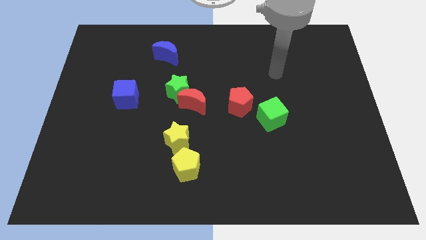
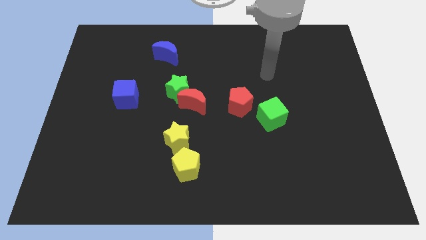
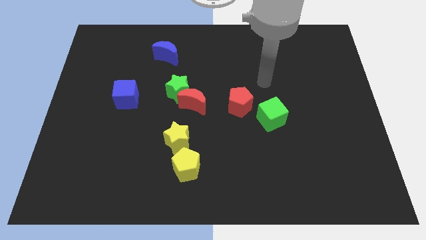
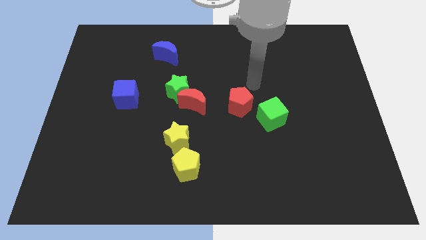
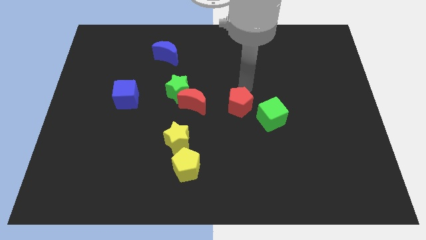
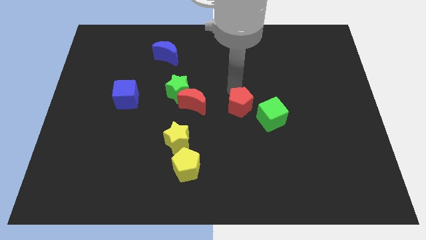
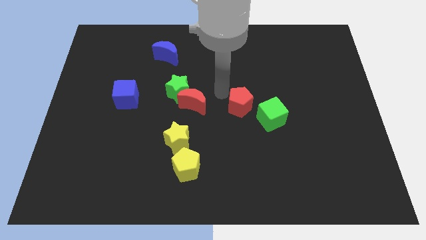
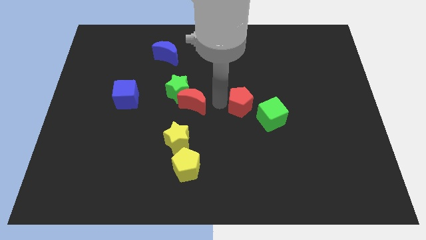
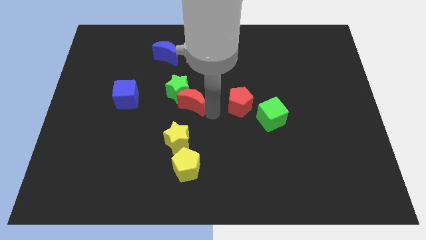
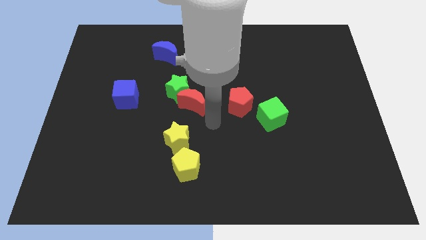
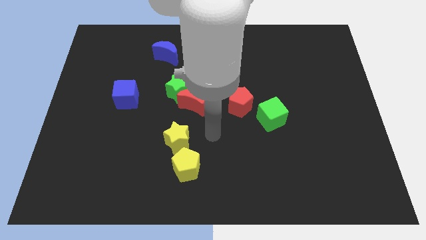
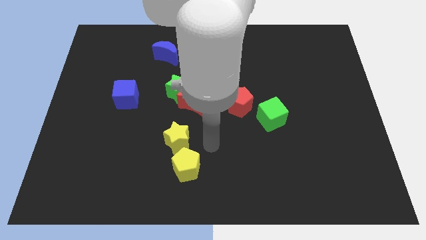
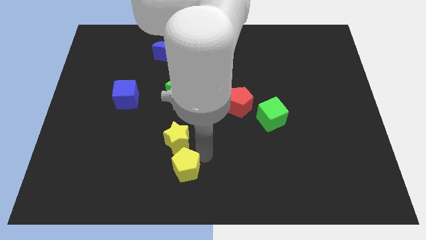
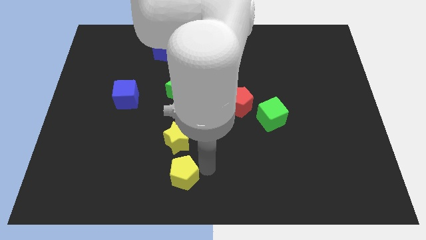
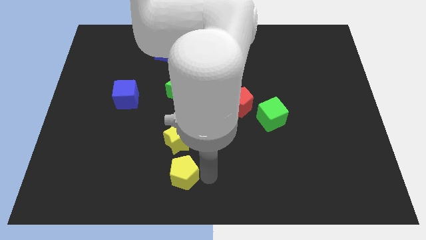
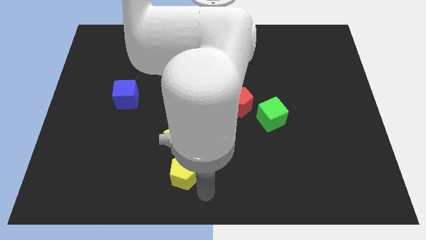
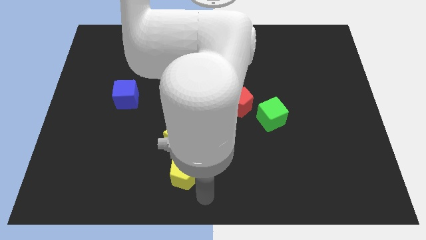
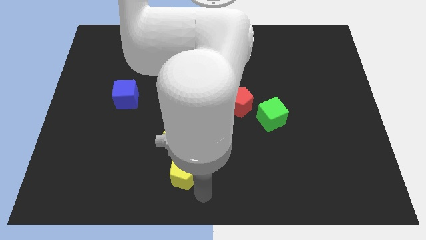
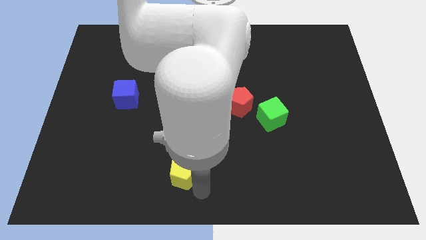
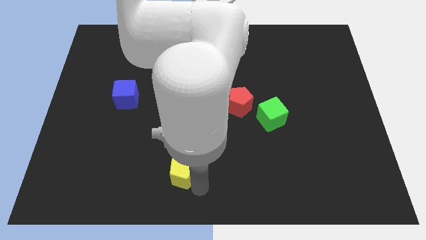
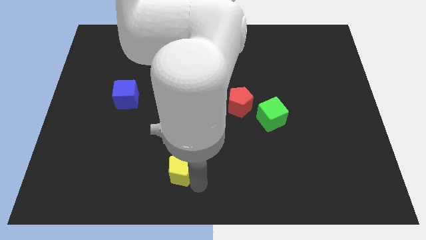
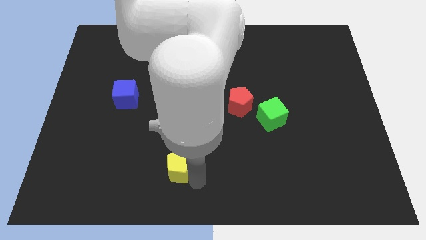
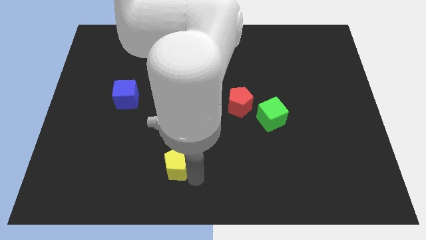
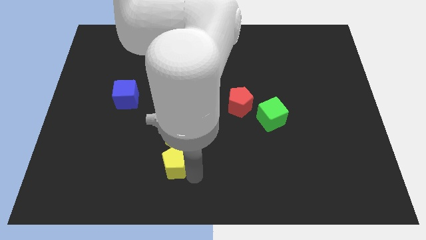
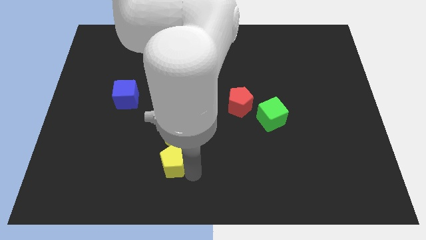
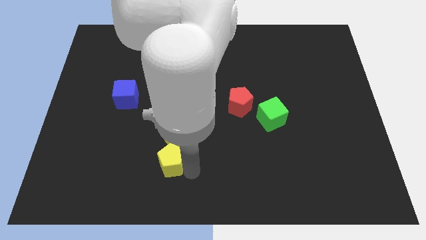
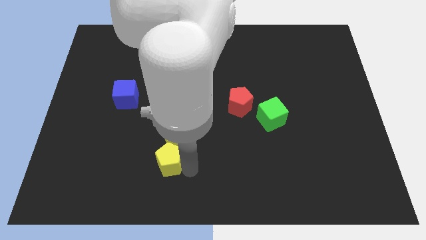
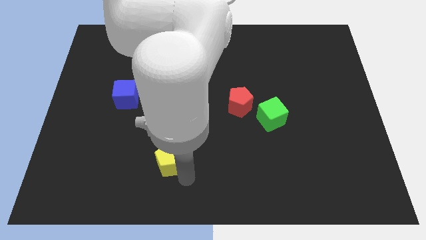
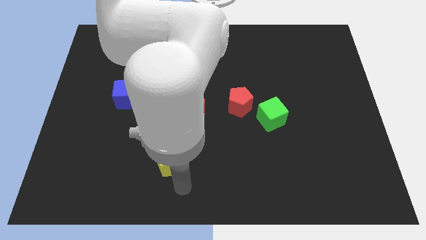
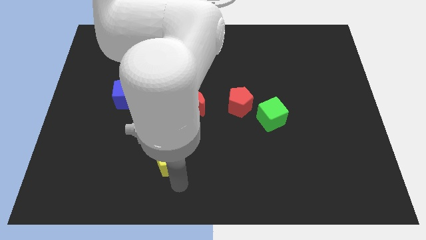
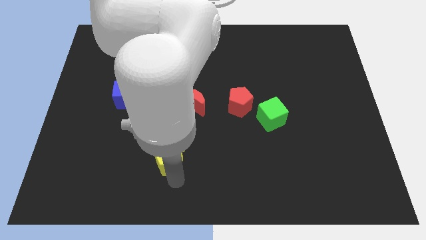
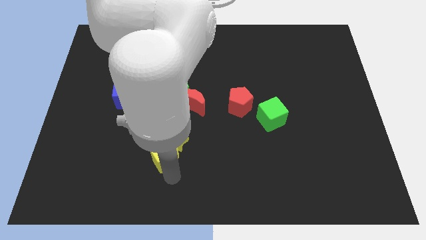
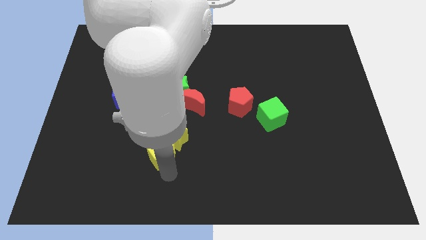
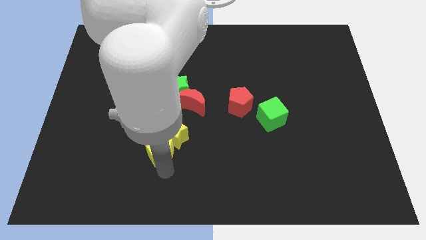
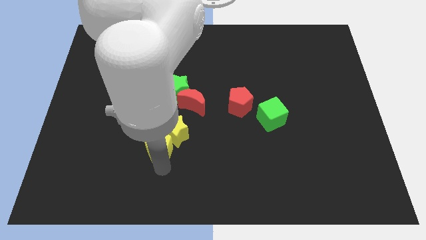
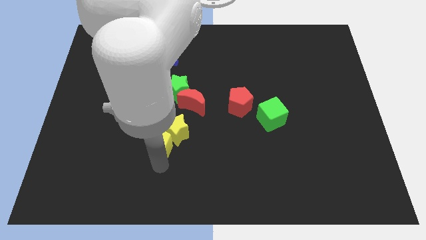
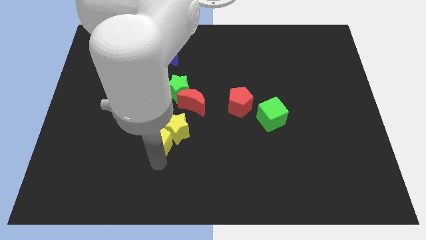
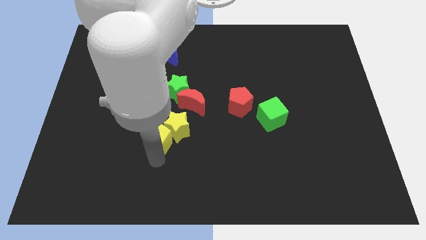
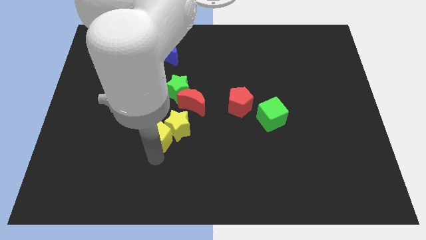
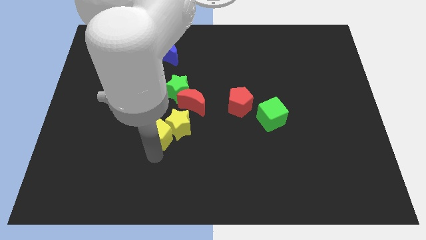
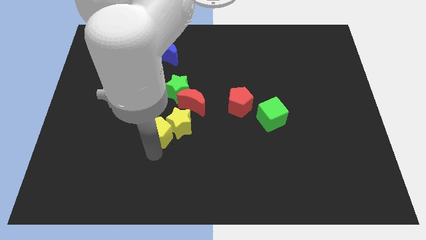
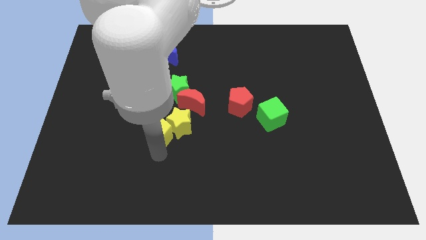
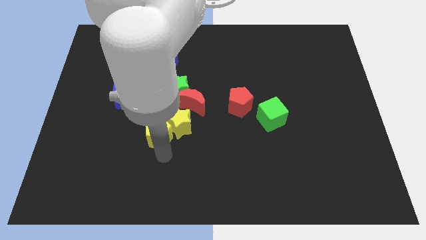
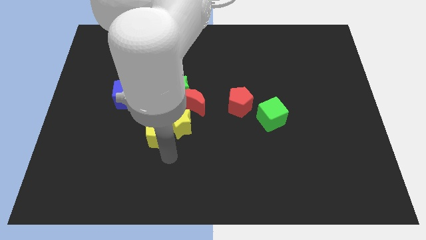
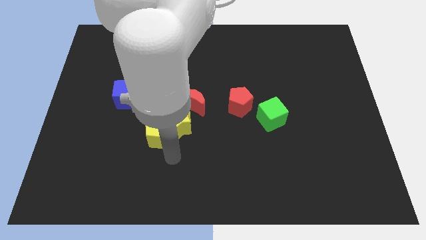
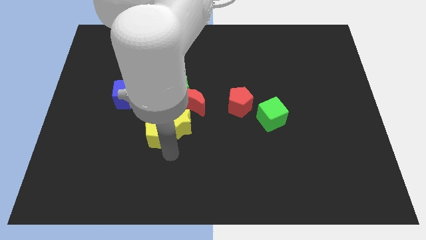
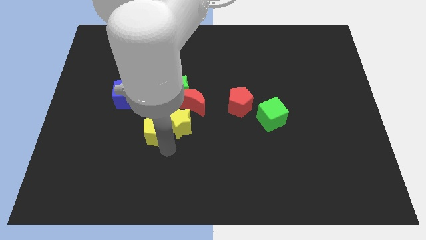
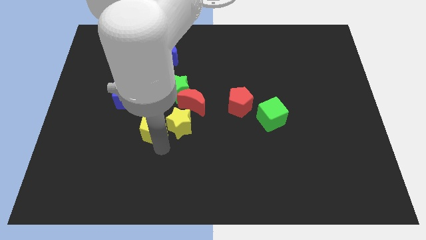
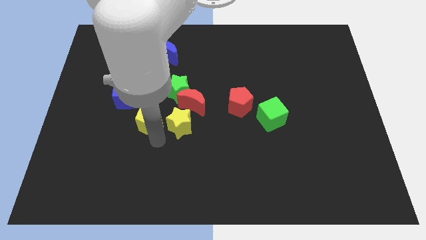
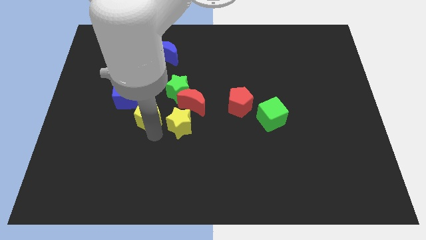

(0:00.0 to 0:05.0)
move the yellow pentagon to the left side of the red moon
